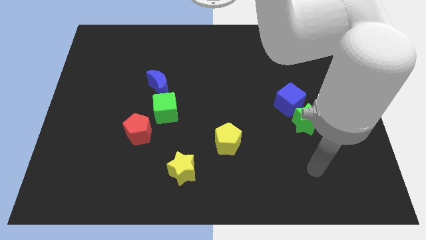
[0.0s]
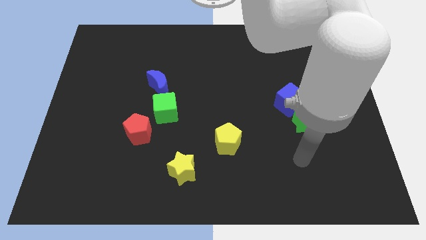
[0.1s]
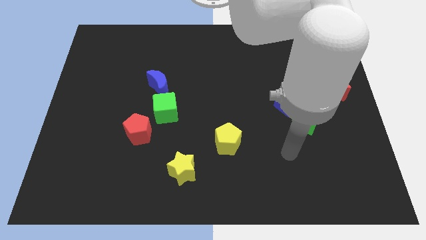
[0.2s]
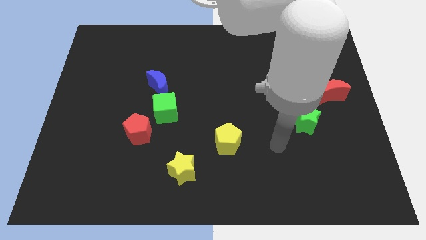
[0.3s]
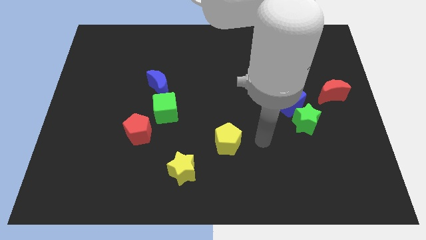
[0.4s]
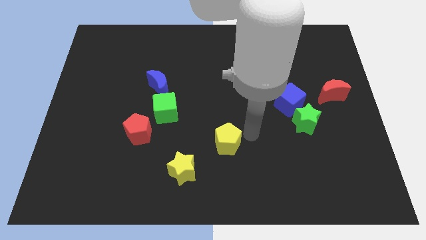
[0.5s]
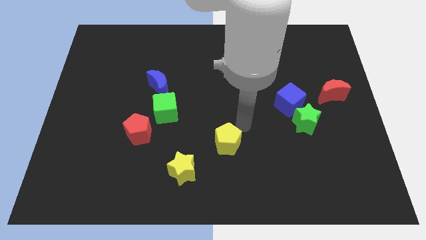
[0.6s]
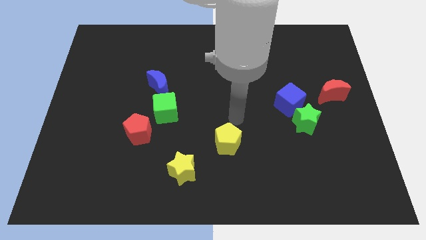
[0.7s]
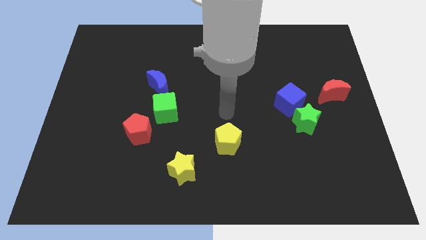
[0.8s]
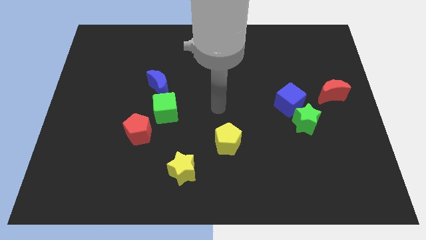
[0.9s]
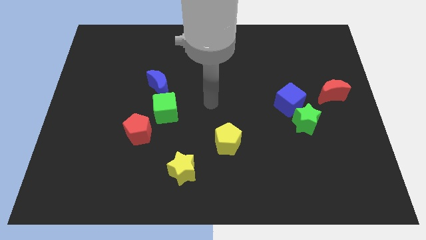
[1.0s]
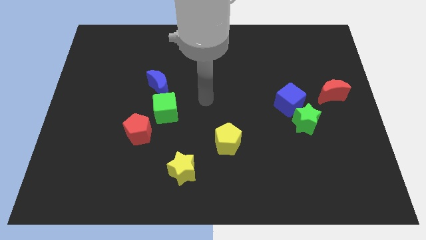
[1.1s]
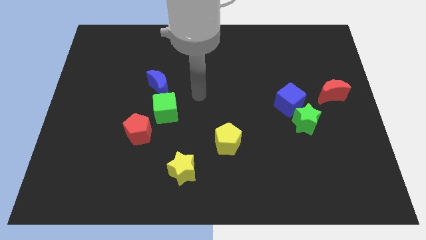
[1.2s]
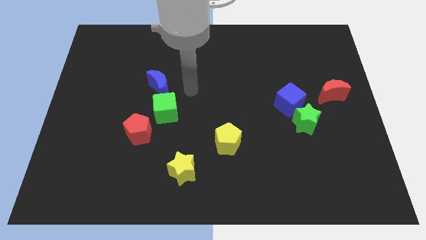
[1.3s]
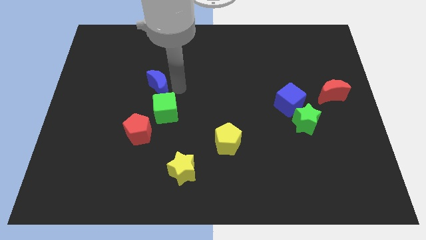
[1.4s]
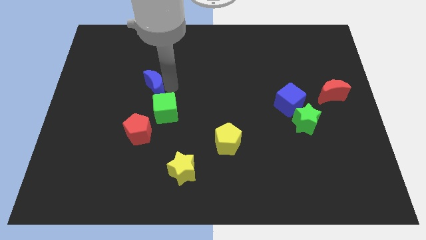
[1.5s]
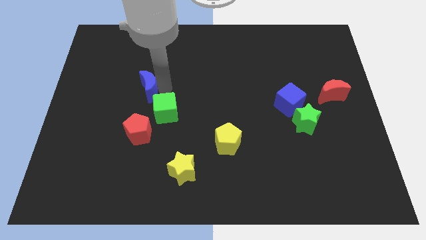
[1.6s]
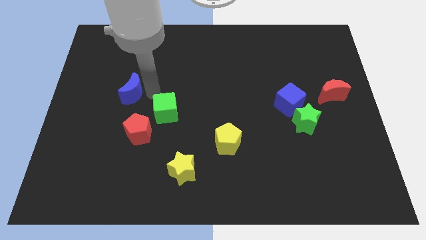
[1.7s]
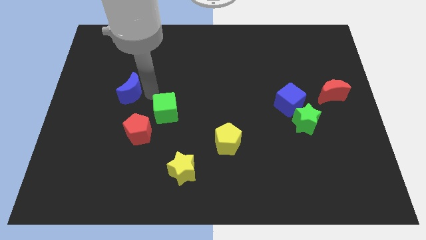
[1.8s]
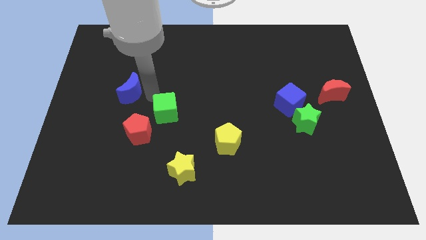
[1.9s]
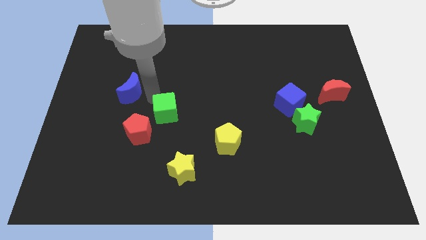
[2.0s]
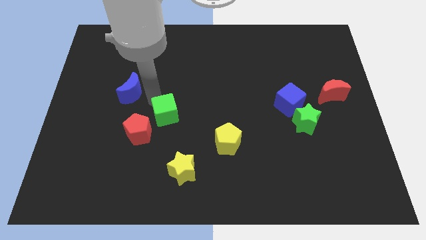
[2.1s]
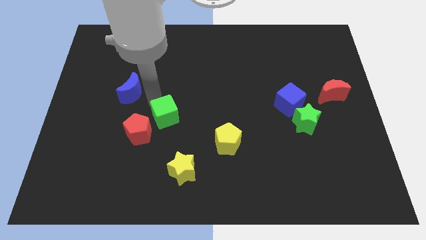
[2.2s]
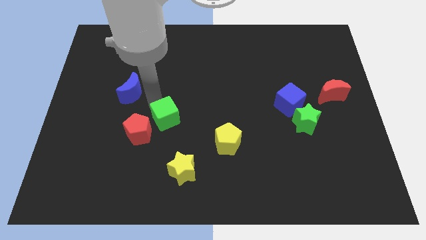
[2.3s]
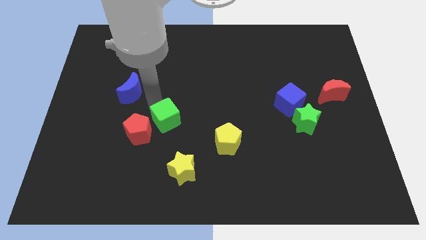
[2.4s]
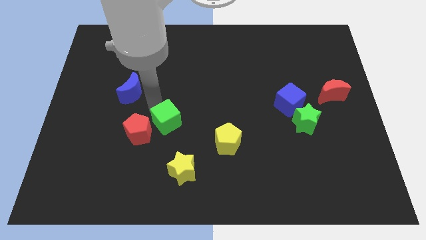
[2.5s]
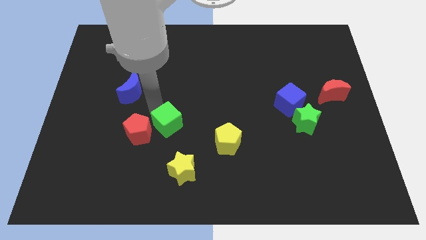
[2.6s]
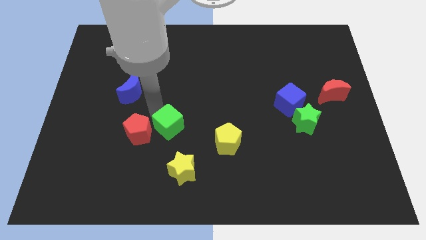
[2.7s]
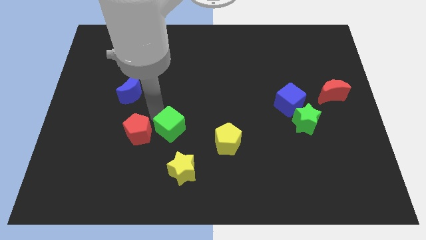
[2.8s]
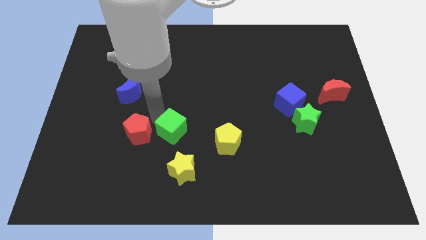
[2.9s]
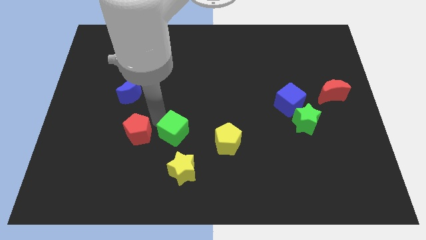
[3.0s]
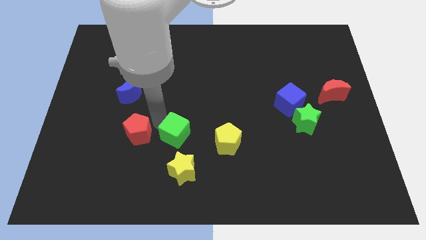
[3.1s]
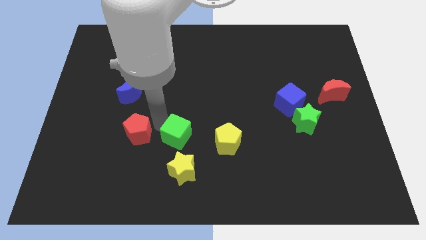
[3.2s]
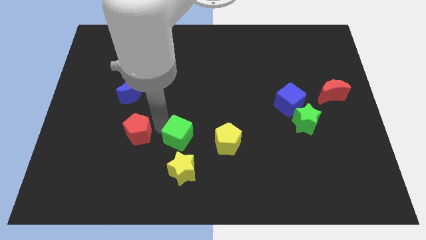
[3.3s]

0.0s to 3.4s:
move the green cube diagonally downwards and to the right a little

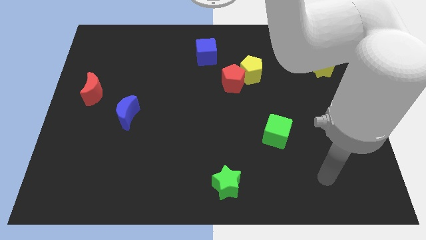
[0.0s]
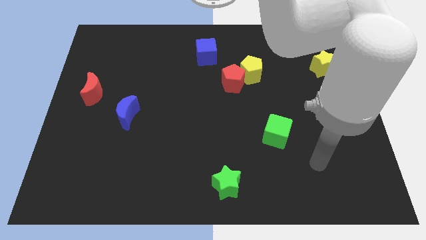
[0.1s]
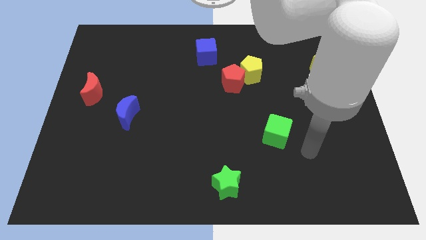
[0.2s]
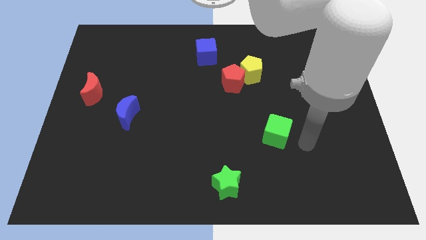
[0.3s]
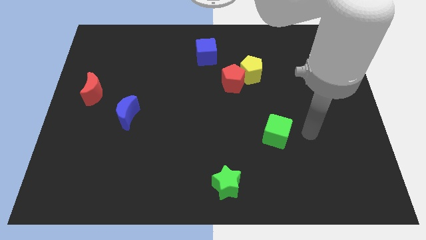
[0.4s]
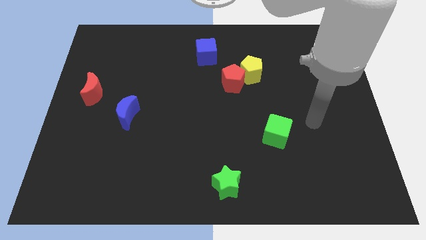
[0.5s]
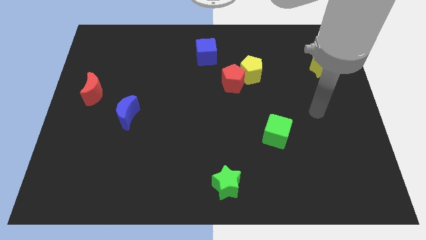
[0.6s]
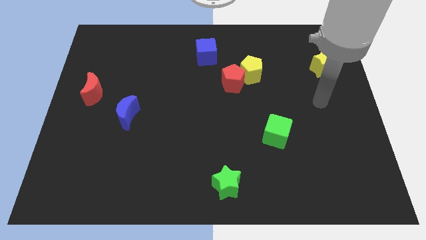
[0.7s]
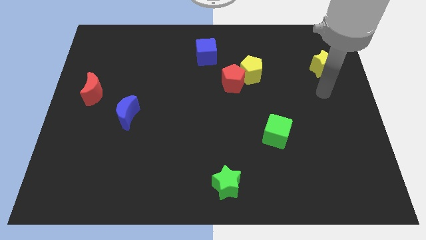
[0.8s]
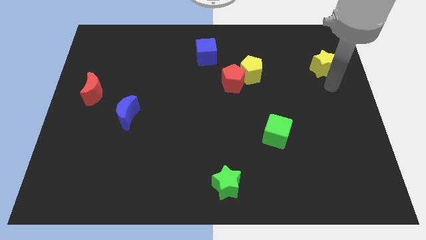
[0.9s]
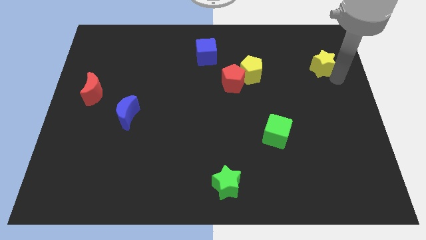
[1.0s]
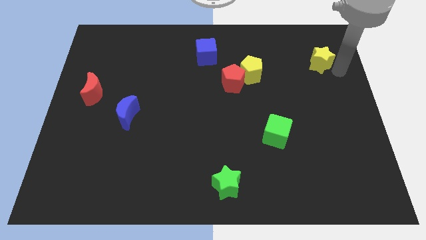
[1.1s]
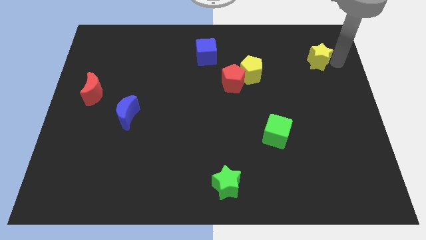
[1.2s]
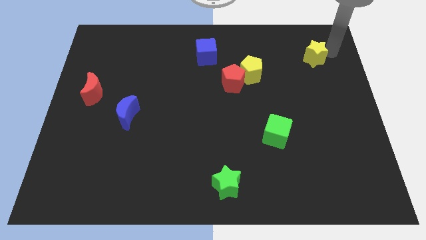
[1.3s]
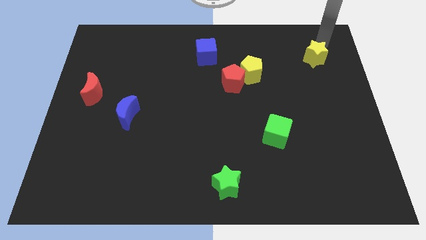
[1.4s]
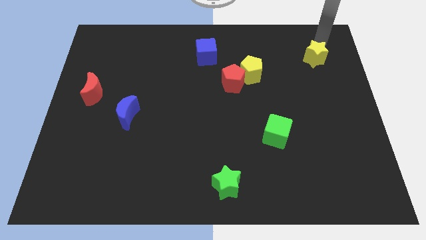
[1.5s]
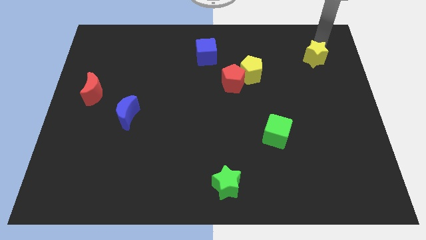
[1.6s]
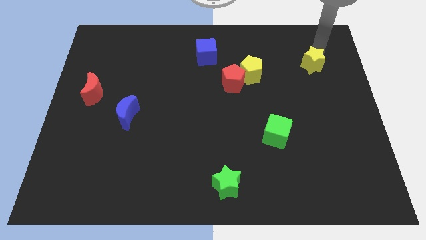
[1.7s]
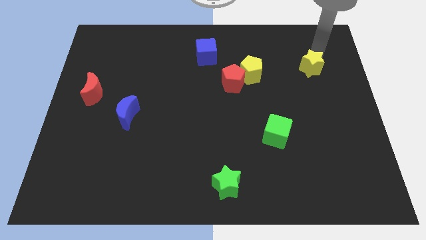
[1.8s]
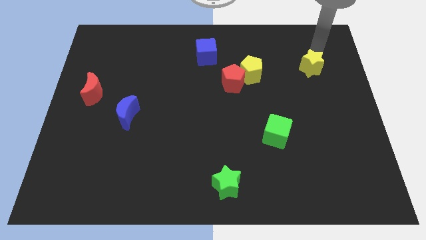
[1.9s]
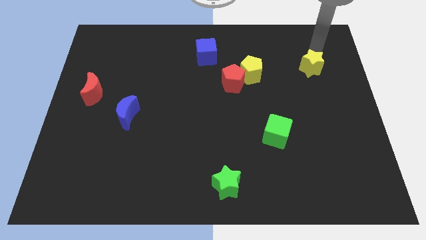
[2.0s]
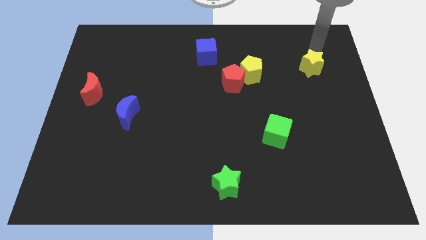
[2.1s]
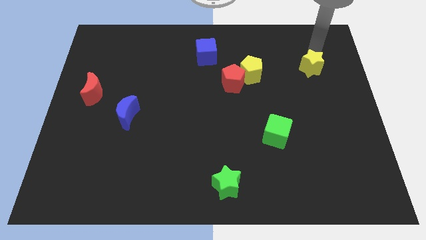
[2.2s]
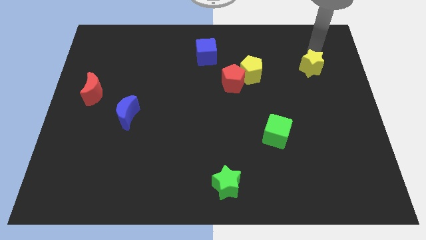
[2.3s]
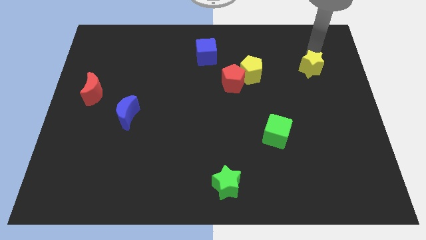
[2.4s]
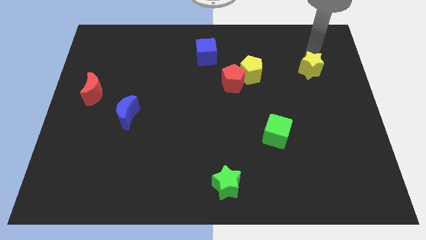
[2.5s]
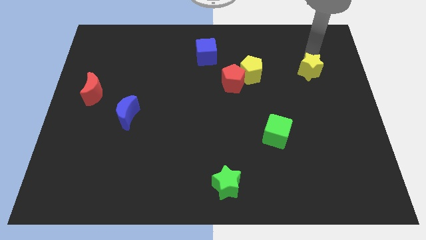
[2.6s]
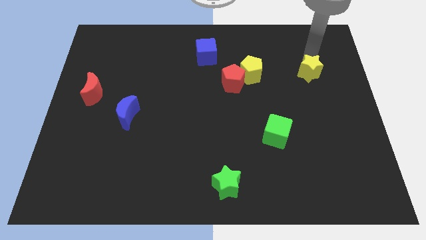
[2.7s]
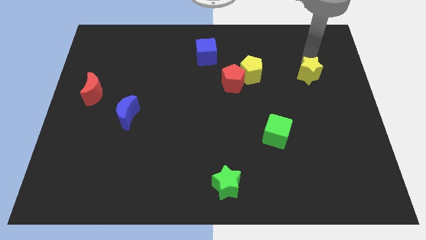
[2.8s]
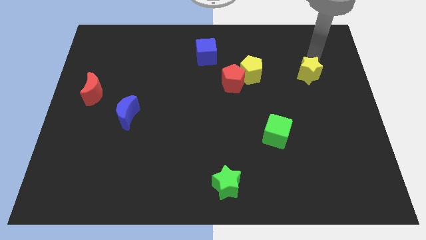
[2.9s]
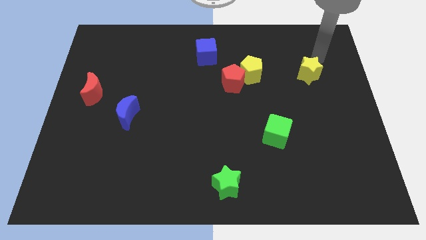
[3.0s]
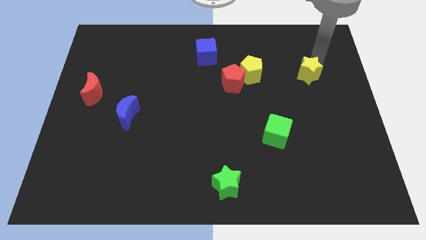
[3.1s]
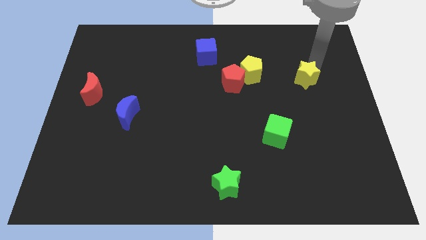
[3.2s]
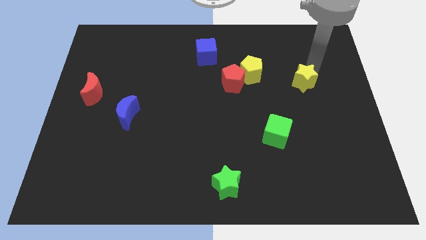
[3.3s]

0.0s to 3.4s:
slightly slide the yellow star diagonally down and left

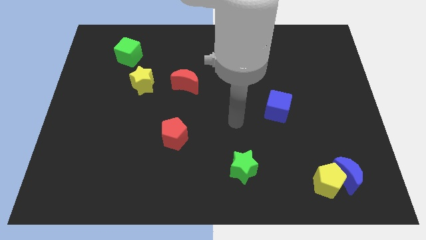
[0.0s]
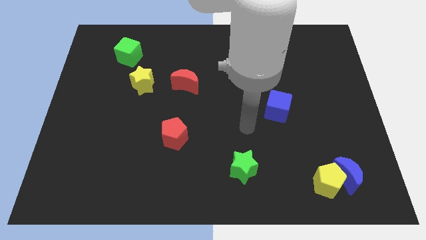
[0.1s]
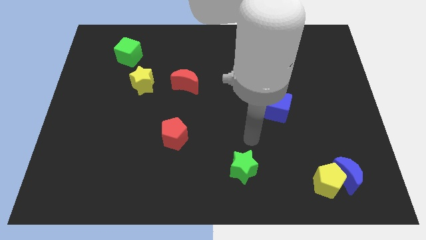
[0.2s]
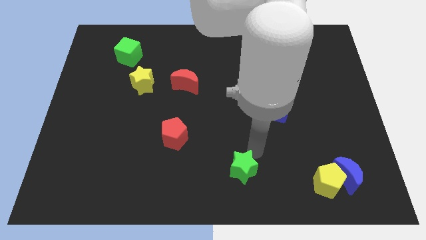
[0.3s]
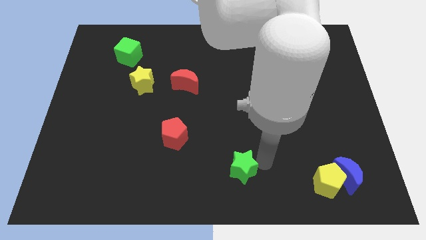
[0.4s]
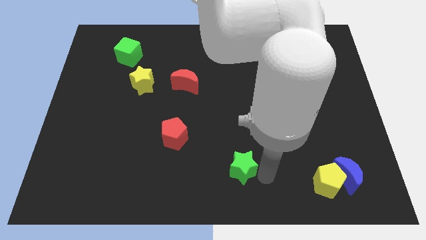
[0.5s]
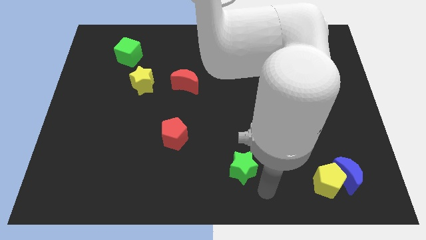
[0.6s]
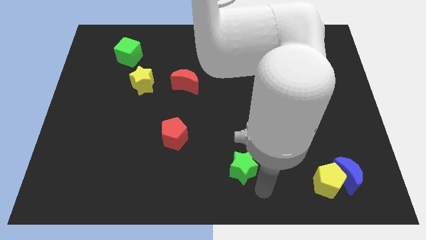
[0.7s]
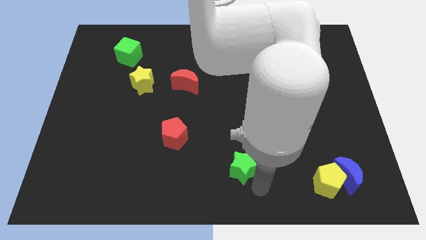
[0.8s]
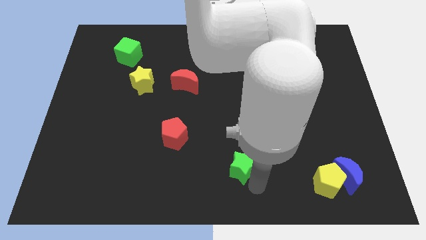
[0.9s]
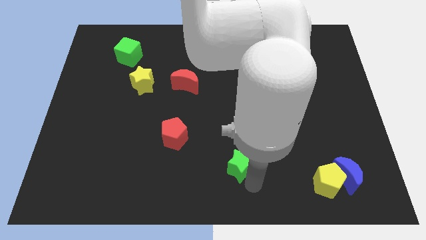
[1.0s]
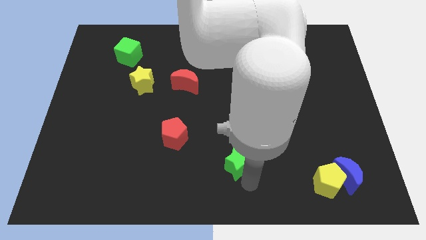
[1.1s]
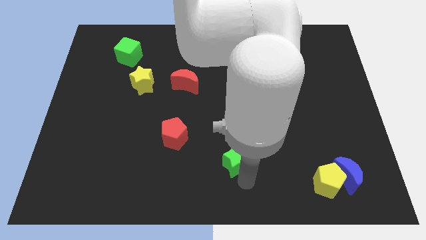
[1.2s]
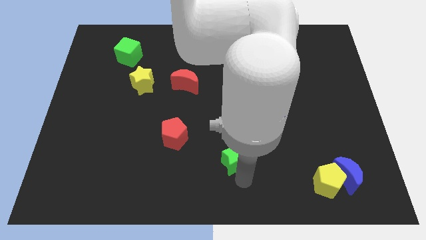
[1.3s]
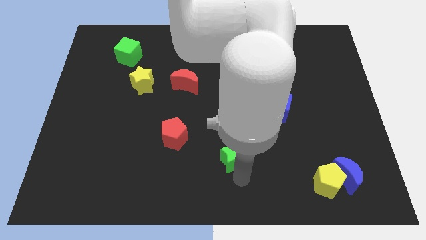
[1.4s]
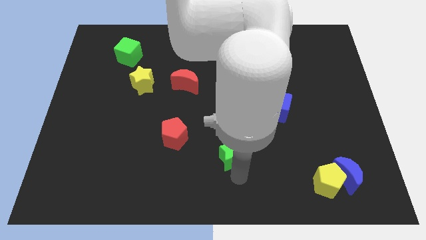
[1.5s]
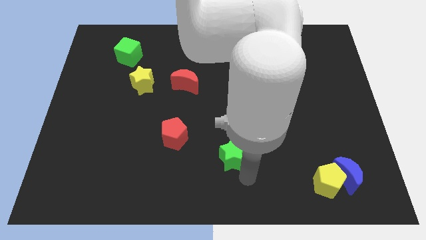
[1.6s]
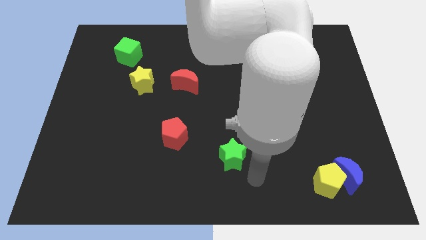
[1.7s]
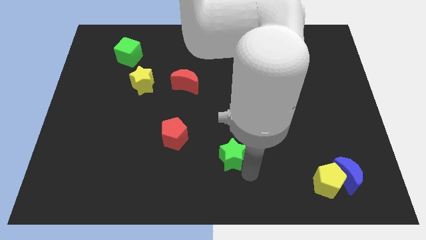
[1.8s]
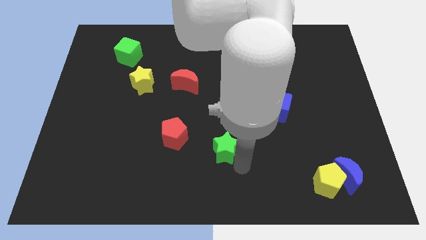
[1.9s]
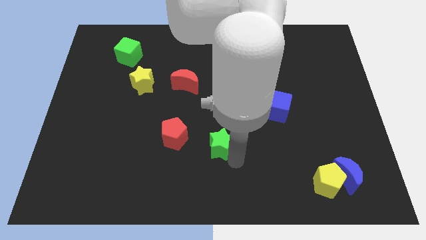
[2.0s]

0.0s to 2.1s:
push the green star a little bit upwards and to the left diagonally
